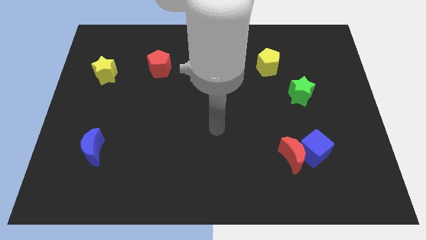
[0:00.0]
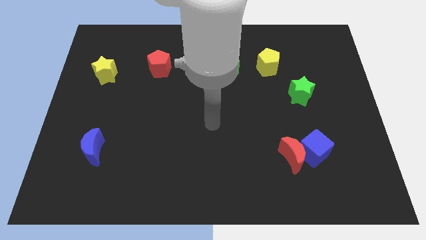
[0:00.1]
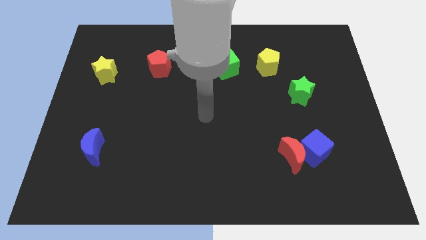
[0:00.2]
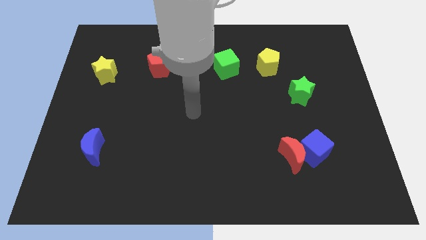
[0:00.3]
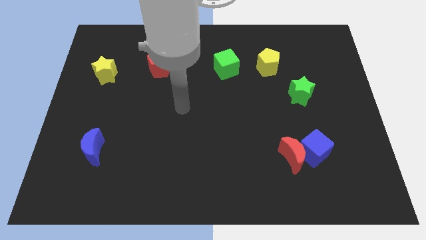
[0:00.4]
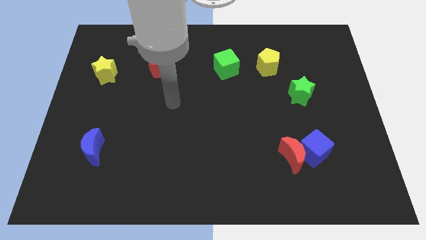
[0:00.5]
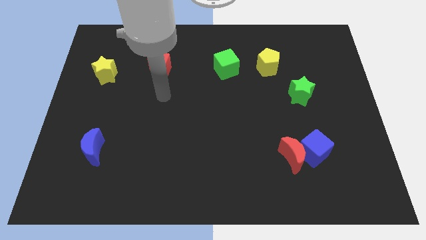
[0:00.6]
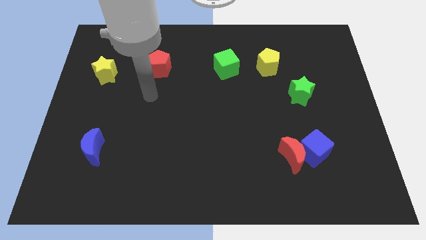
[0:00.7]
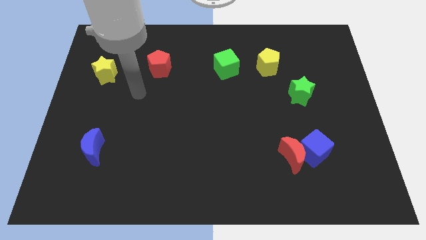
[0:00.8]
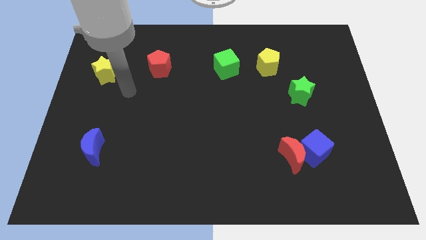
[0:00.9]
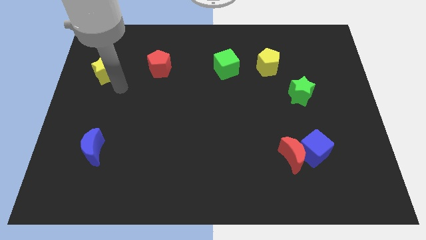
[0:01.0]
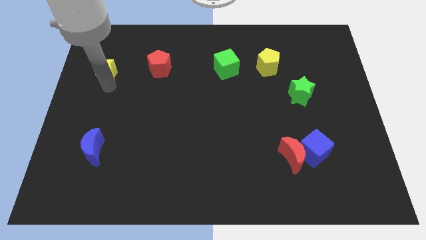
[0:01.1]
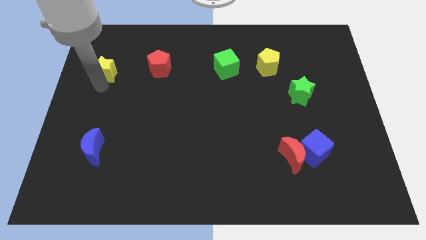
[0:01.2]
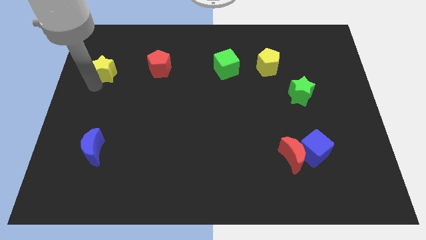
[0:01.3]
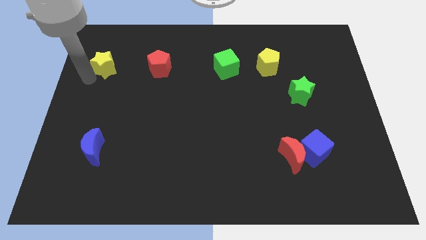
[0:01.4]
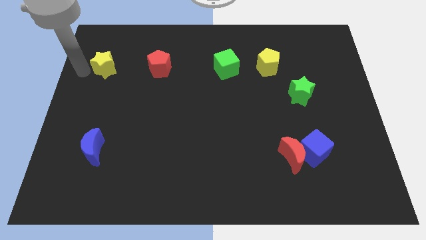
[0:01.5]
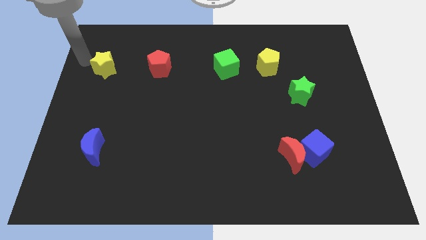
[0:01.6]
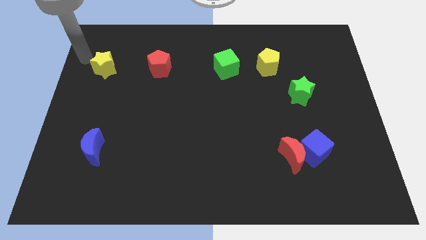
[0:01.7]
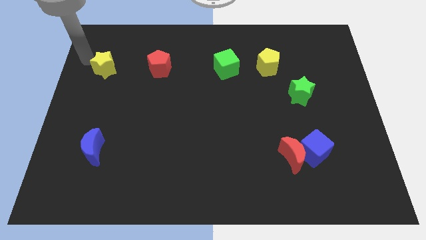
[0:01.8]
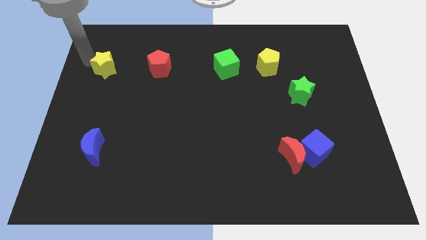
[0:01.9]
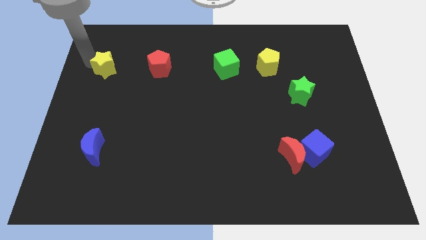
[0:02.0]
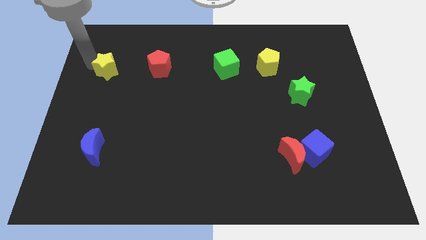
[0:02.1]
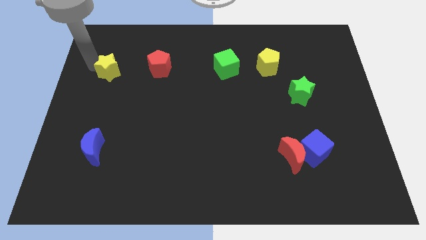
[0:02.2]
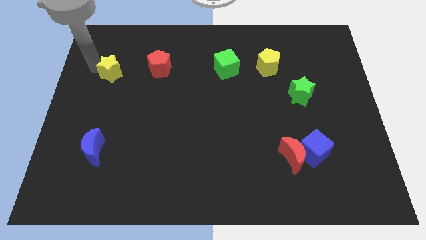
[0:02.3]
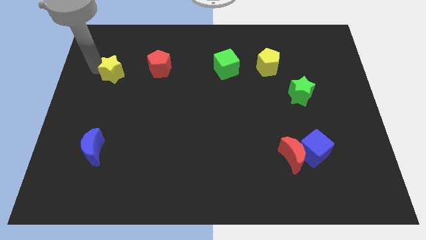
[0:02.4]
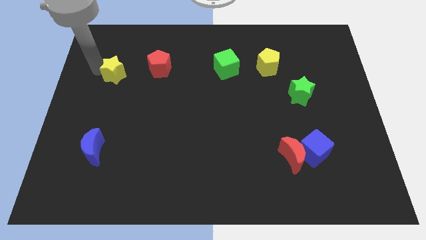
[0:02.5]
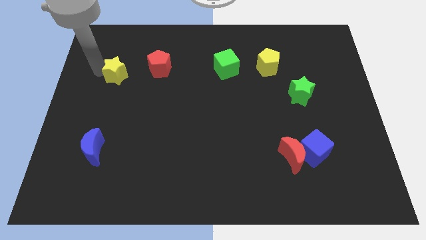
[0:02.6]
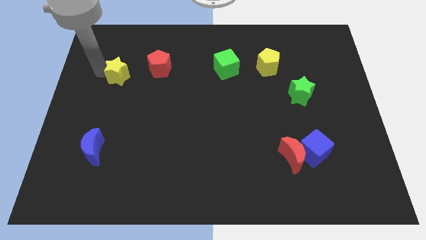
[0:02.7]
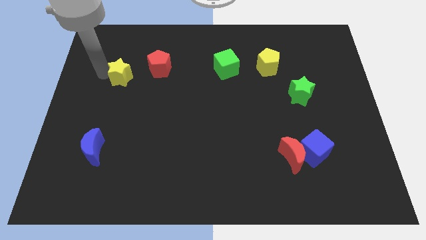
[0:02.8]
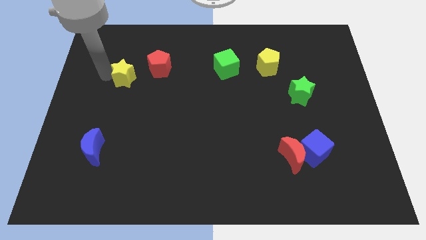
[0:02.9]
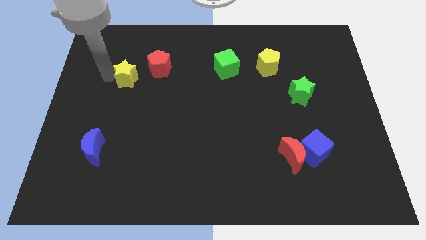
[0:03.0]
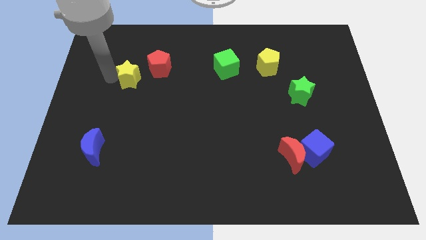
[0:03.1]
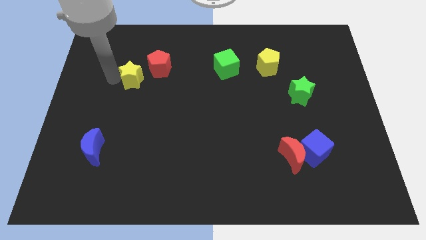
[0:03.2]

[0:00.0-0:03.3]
slightly slide the yellow star to the right

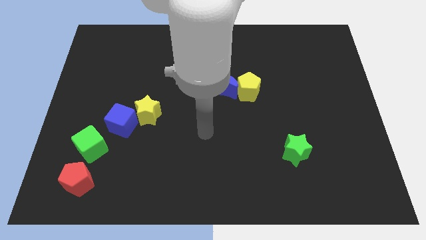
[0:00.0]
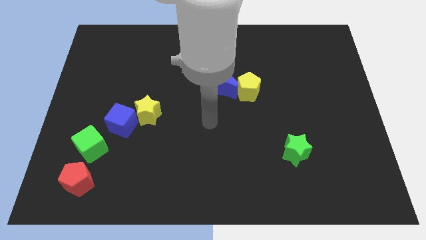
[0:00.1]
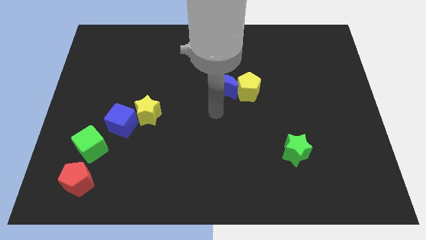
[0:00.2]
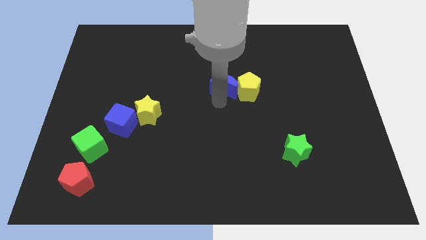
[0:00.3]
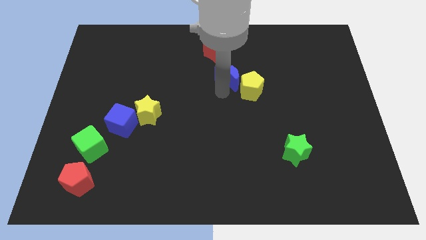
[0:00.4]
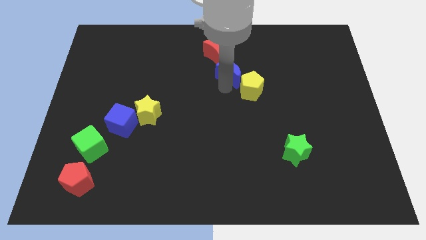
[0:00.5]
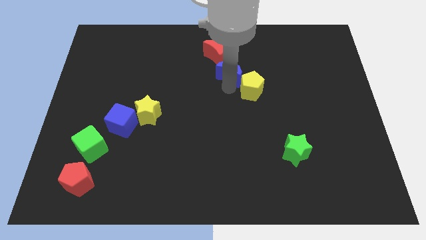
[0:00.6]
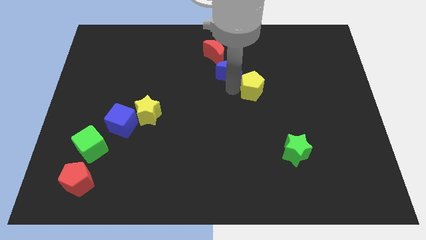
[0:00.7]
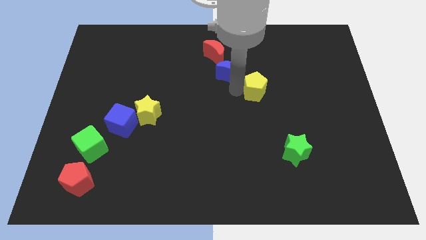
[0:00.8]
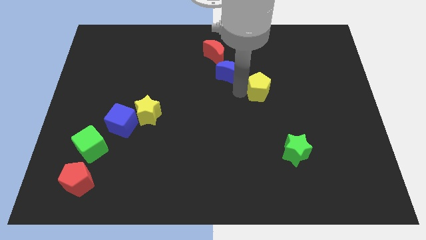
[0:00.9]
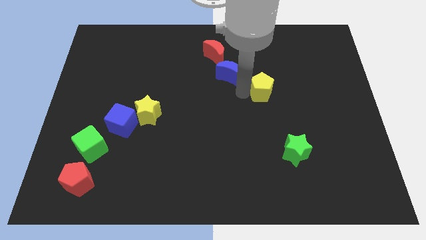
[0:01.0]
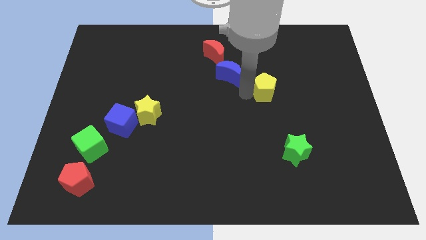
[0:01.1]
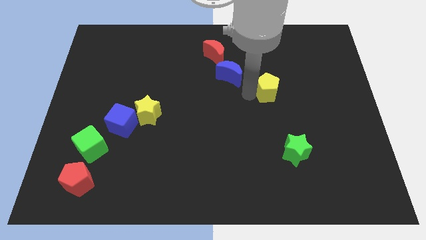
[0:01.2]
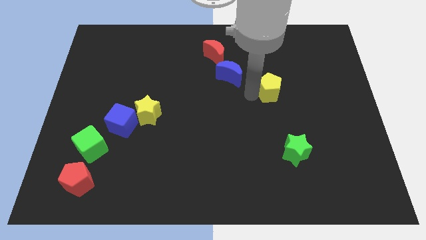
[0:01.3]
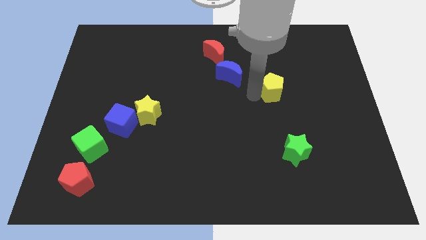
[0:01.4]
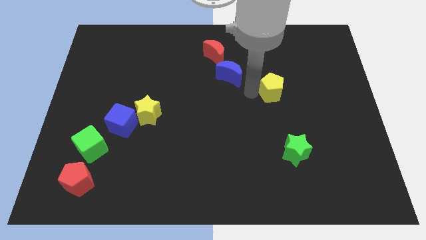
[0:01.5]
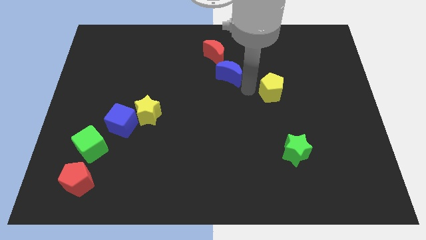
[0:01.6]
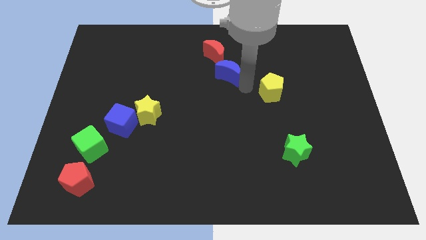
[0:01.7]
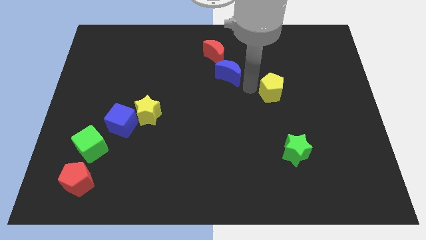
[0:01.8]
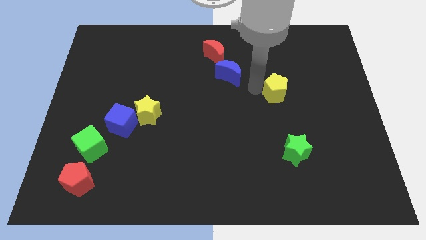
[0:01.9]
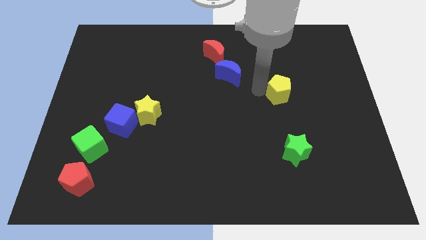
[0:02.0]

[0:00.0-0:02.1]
push the yellow pentagon right slightly

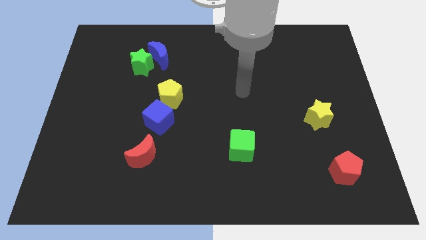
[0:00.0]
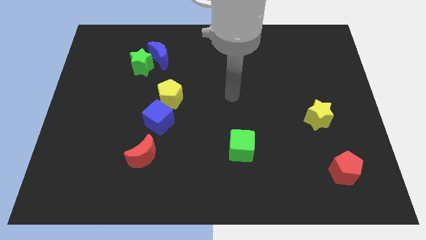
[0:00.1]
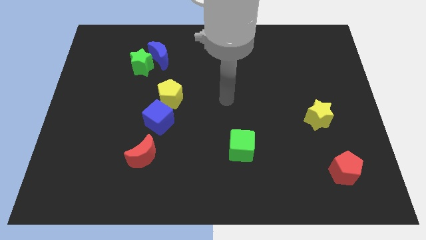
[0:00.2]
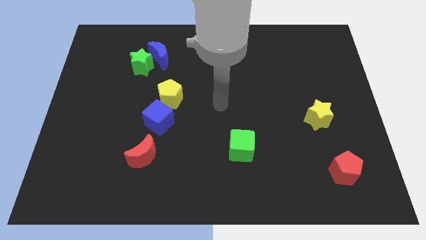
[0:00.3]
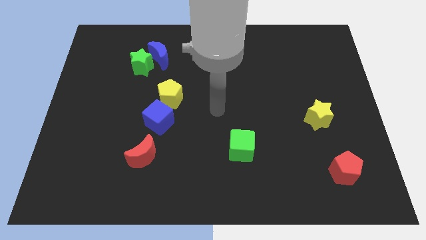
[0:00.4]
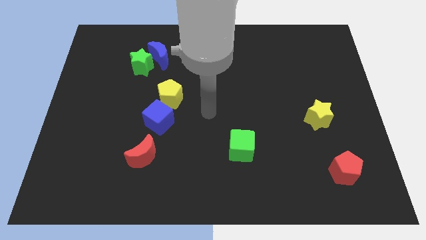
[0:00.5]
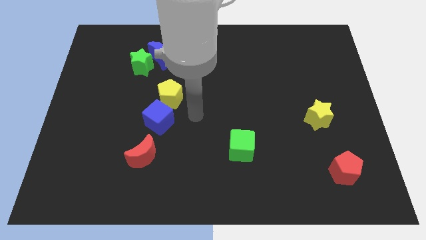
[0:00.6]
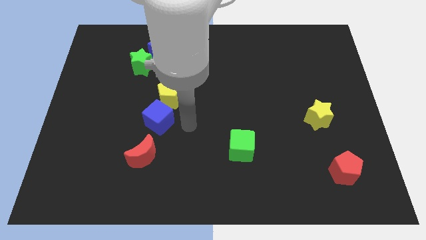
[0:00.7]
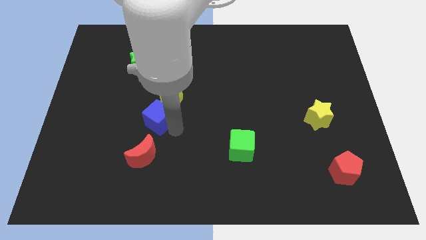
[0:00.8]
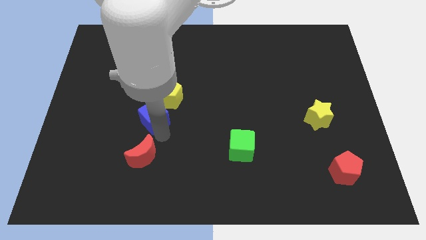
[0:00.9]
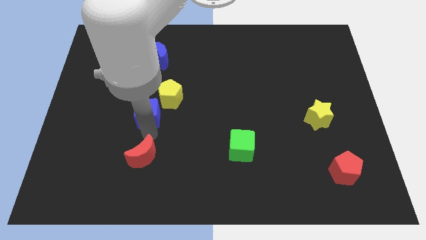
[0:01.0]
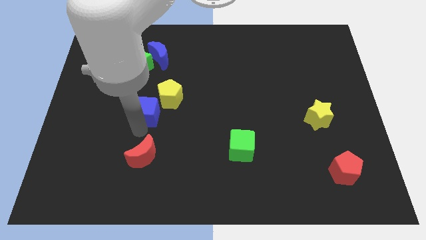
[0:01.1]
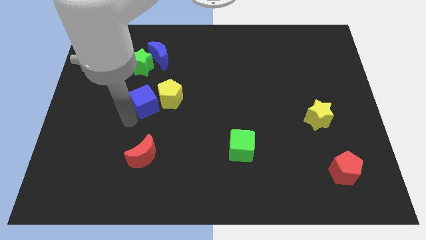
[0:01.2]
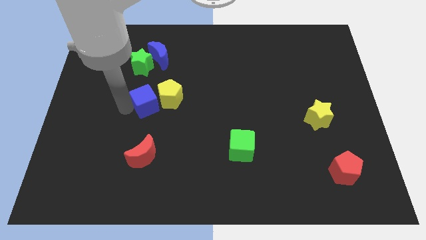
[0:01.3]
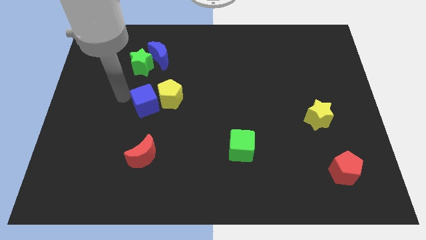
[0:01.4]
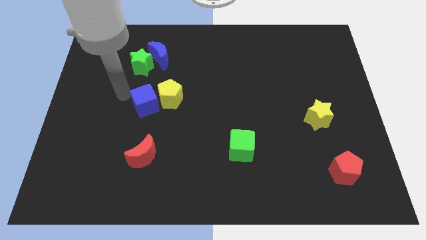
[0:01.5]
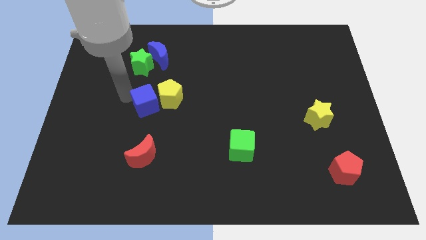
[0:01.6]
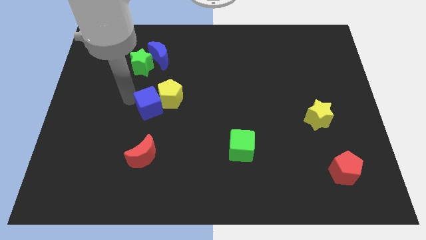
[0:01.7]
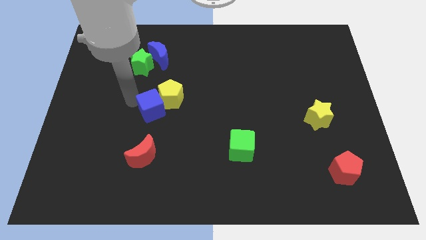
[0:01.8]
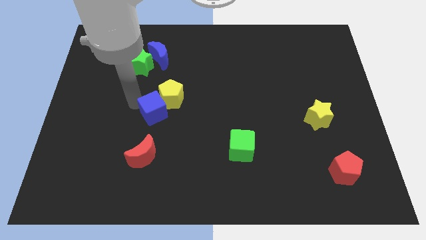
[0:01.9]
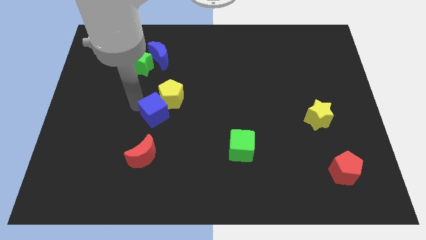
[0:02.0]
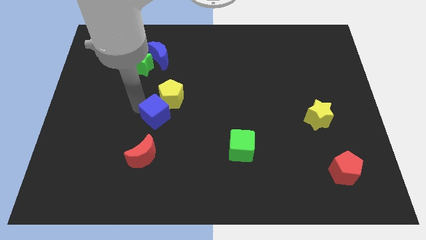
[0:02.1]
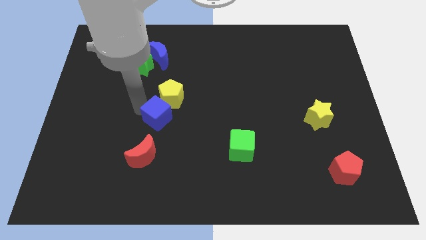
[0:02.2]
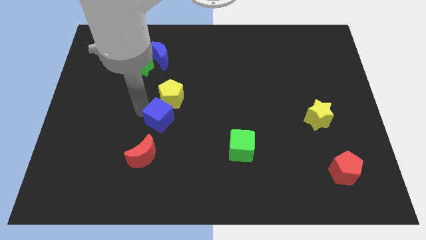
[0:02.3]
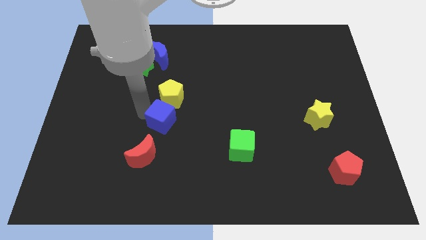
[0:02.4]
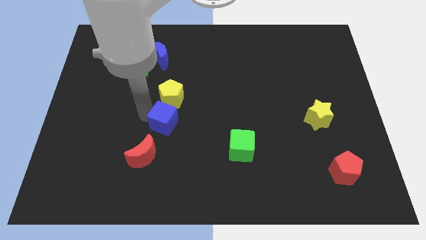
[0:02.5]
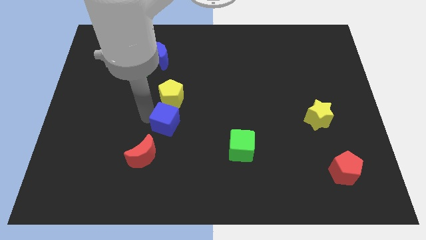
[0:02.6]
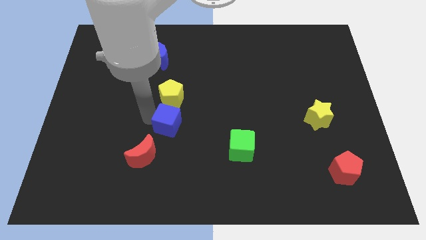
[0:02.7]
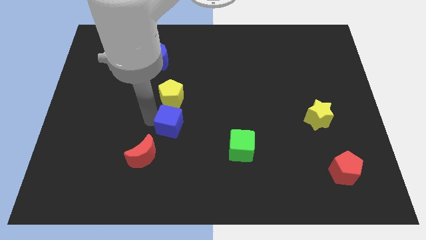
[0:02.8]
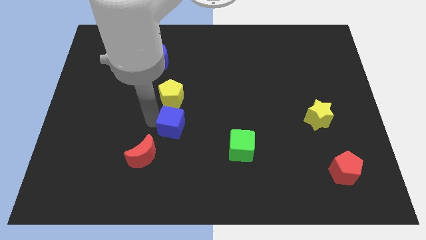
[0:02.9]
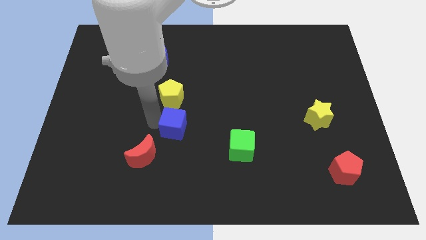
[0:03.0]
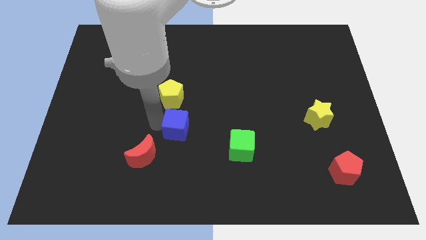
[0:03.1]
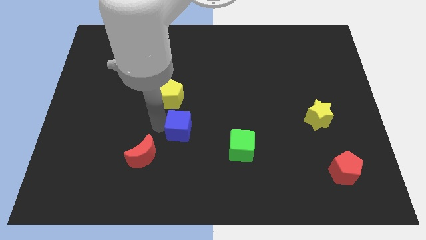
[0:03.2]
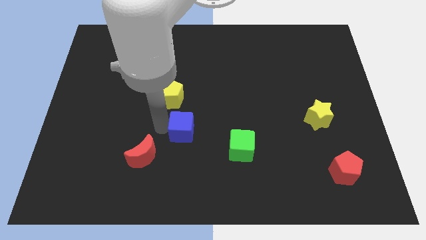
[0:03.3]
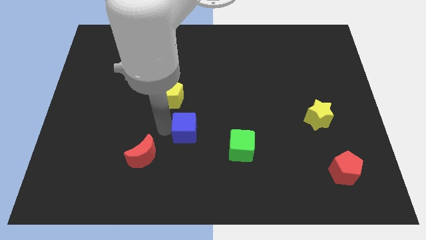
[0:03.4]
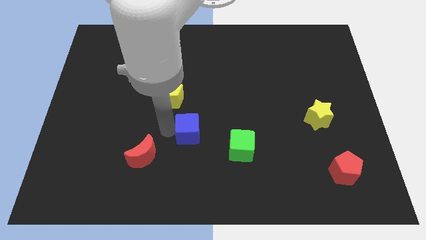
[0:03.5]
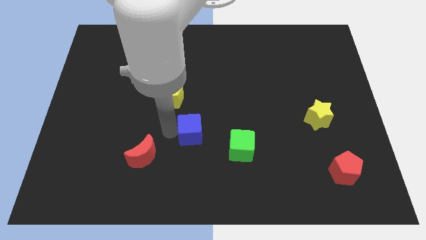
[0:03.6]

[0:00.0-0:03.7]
move the blue cube somewhat to the right
